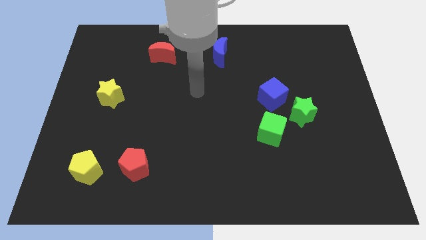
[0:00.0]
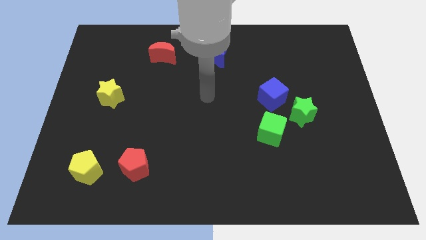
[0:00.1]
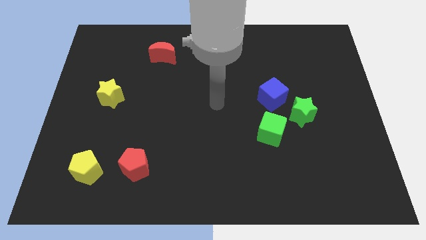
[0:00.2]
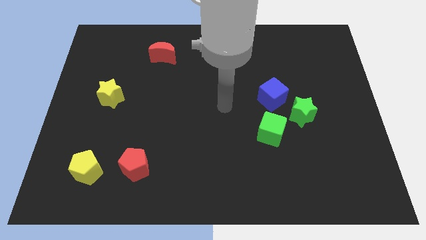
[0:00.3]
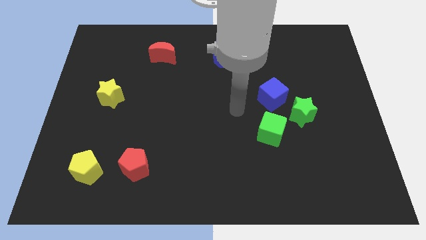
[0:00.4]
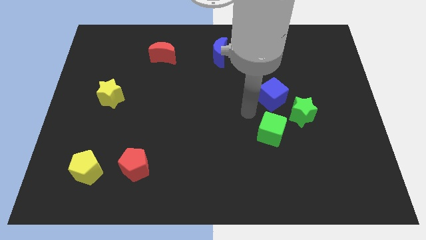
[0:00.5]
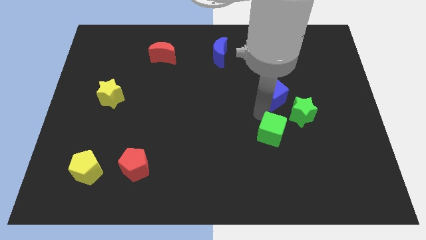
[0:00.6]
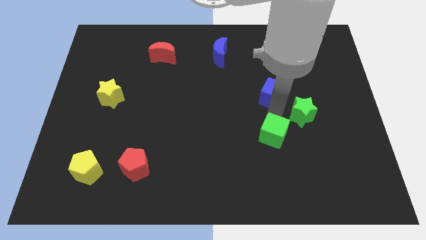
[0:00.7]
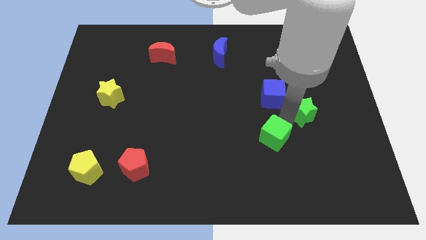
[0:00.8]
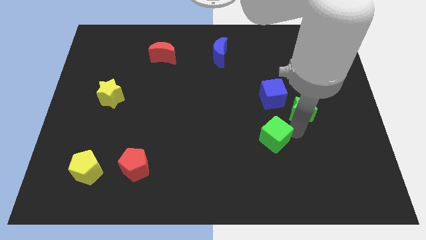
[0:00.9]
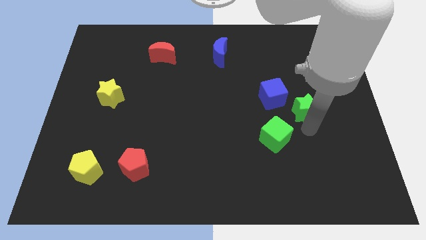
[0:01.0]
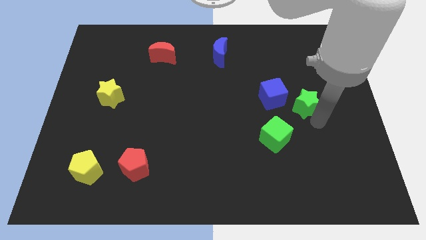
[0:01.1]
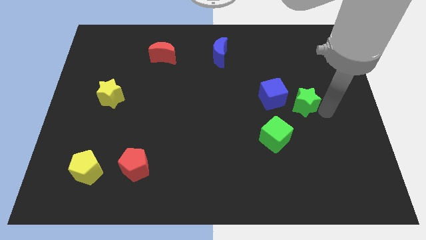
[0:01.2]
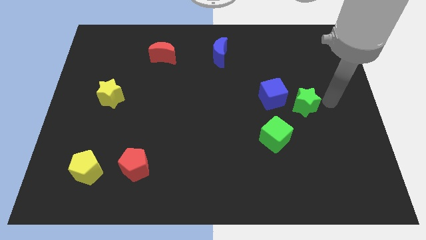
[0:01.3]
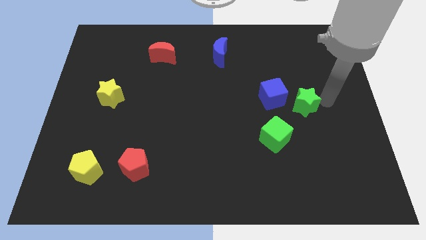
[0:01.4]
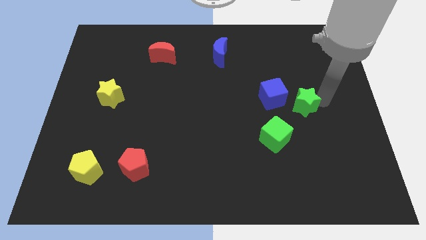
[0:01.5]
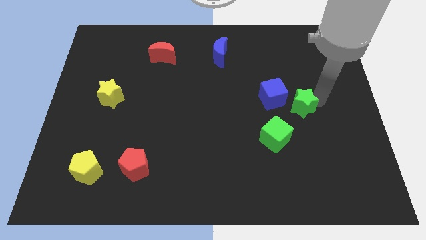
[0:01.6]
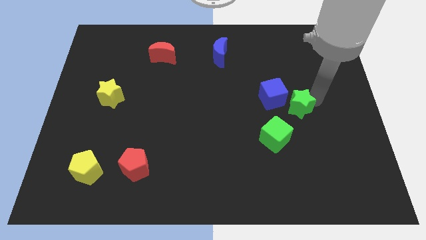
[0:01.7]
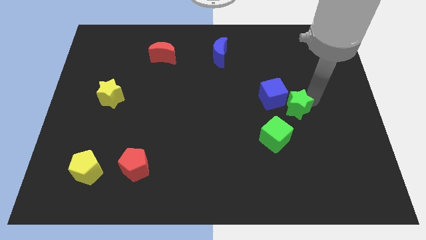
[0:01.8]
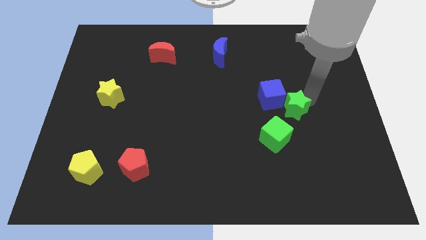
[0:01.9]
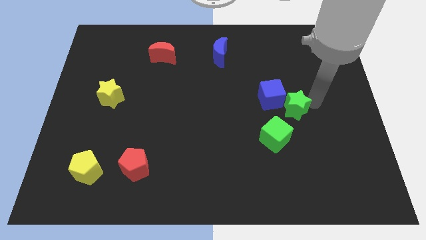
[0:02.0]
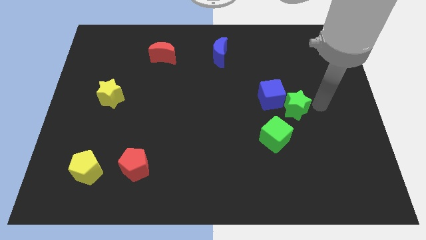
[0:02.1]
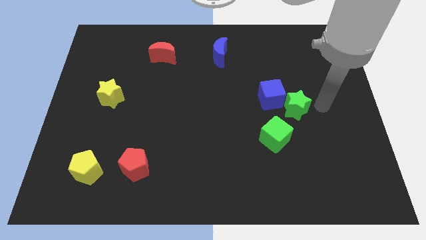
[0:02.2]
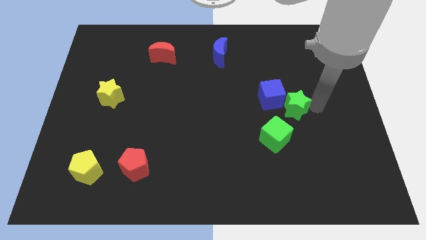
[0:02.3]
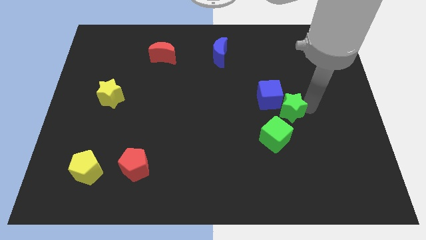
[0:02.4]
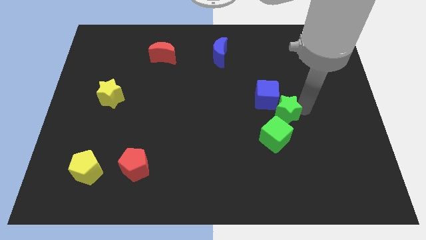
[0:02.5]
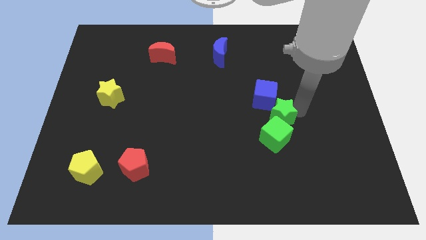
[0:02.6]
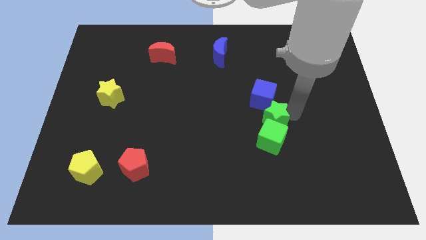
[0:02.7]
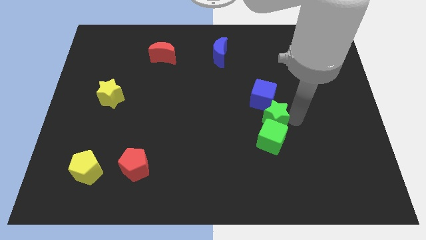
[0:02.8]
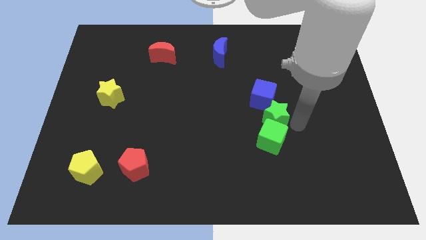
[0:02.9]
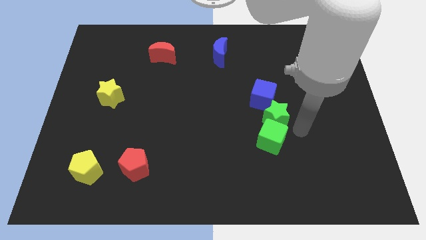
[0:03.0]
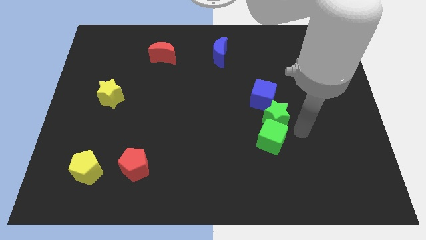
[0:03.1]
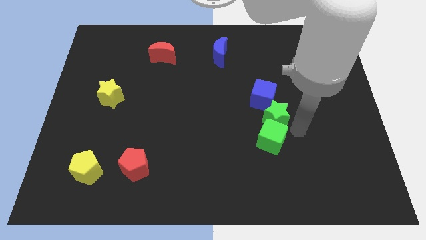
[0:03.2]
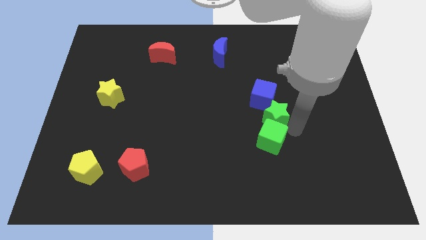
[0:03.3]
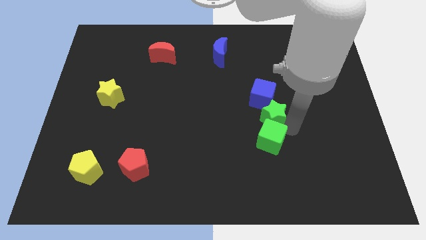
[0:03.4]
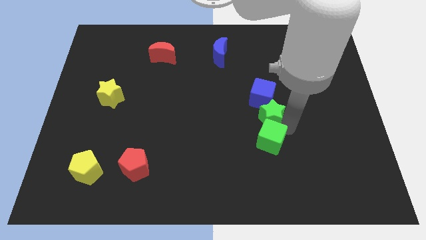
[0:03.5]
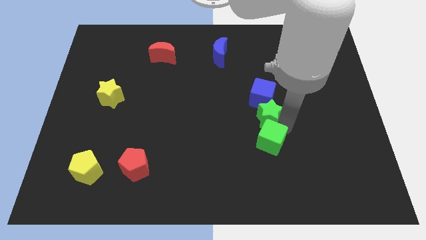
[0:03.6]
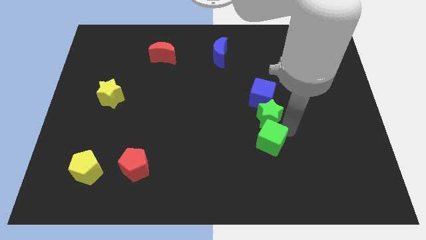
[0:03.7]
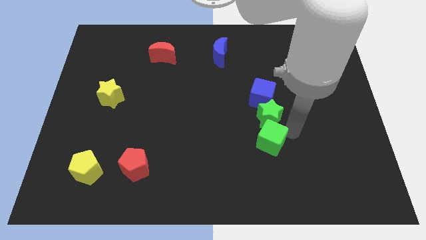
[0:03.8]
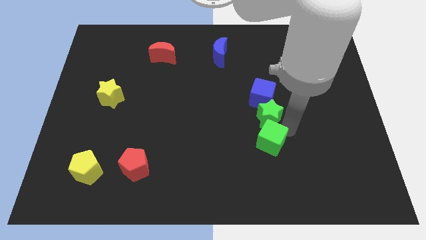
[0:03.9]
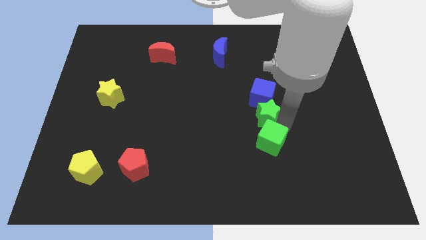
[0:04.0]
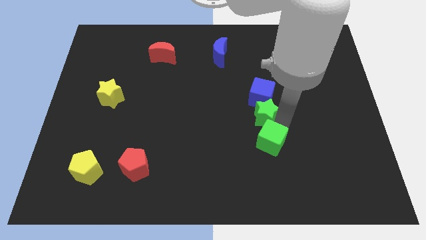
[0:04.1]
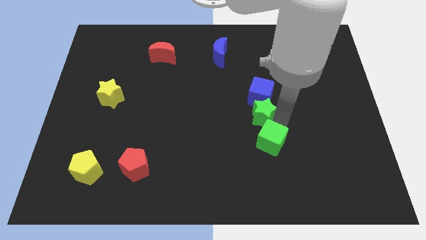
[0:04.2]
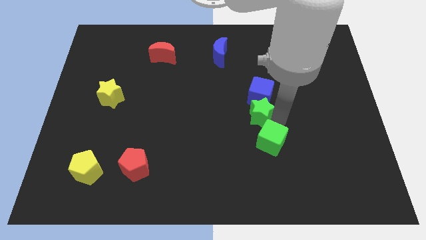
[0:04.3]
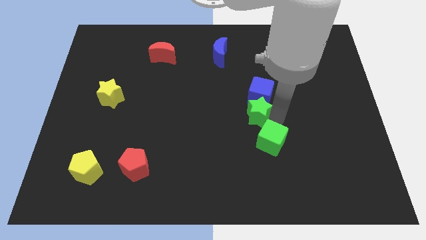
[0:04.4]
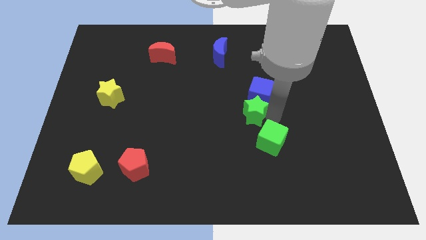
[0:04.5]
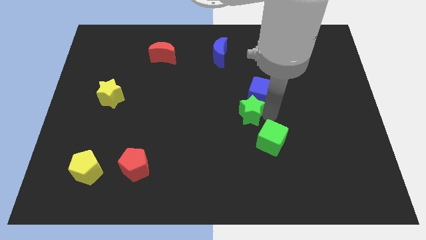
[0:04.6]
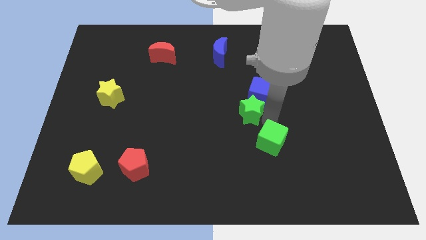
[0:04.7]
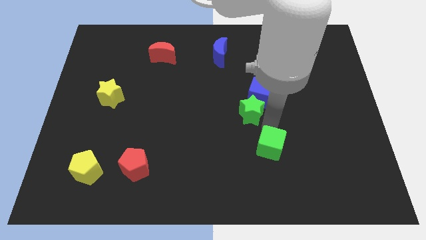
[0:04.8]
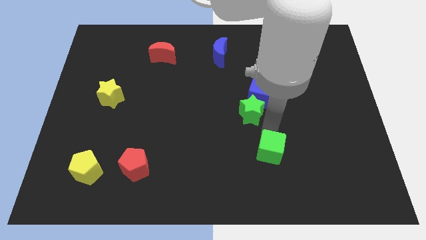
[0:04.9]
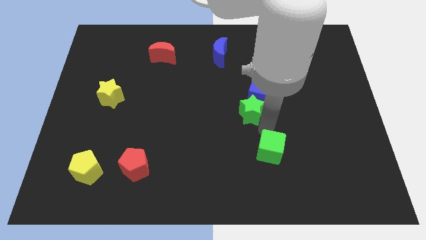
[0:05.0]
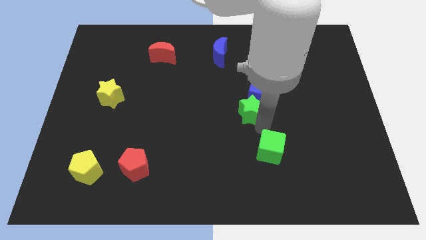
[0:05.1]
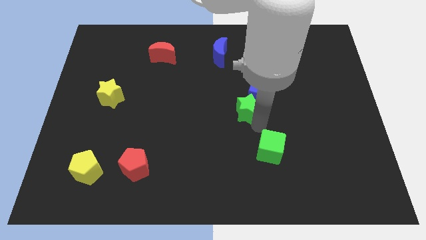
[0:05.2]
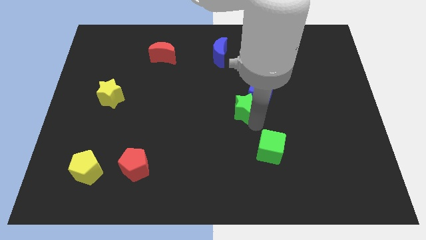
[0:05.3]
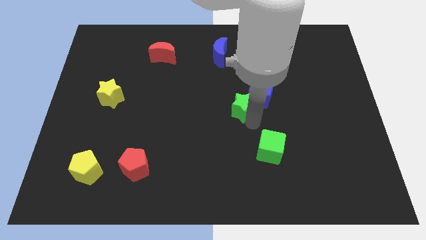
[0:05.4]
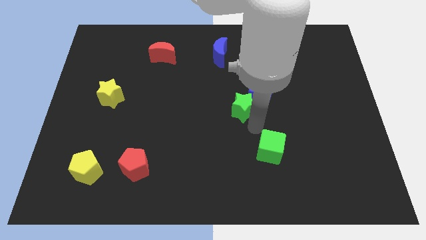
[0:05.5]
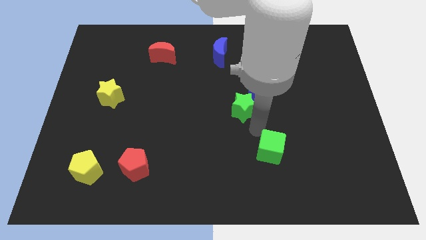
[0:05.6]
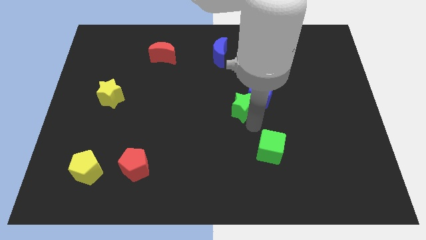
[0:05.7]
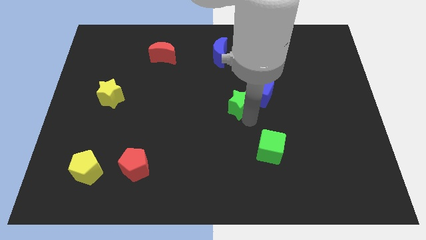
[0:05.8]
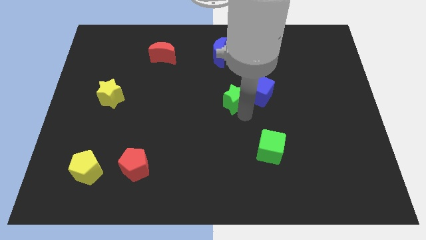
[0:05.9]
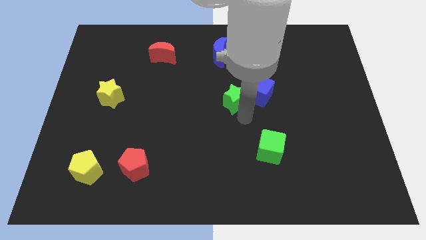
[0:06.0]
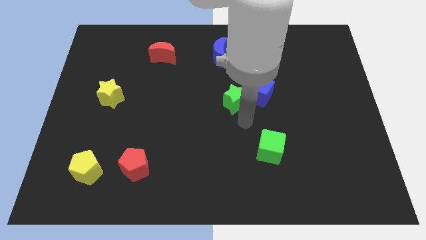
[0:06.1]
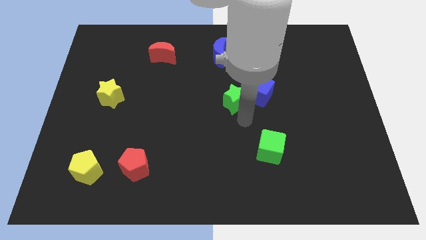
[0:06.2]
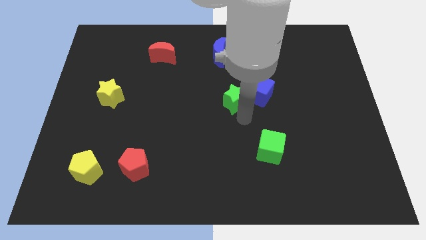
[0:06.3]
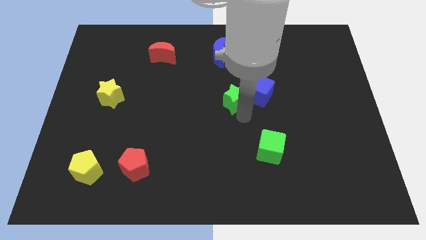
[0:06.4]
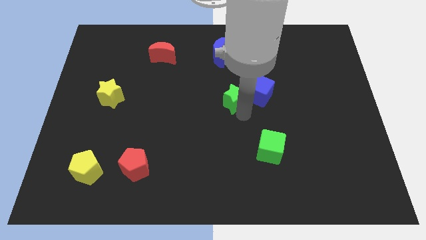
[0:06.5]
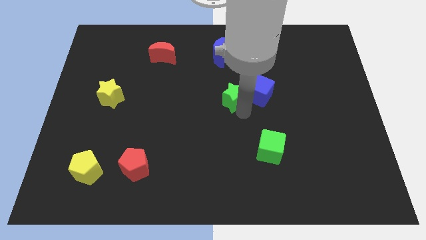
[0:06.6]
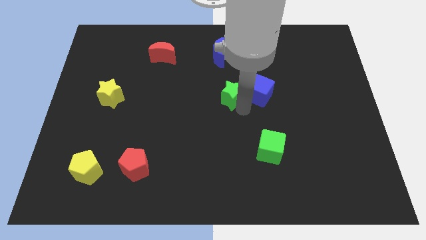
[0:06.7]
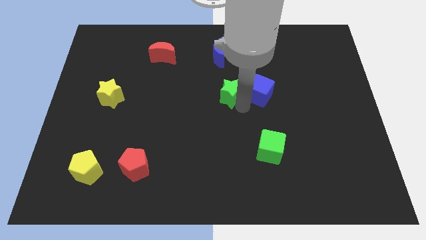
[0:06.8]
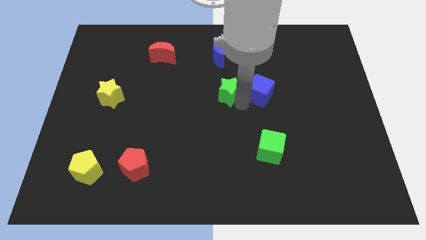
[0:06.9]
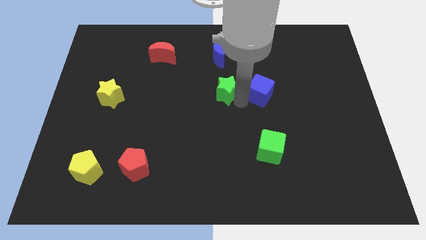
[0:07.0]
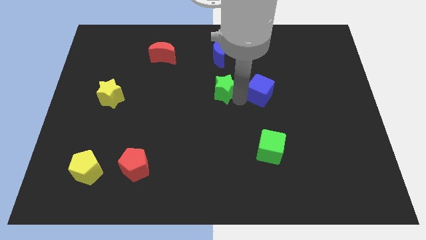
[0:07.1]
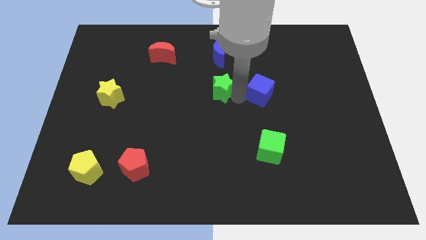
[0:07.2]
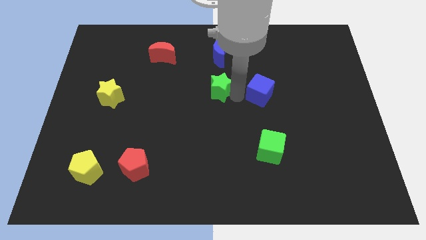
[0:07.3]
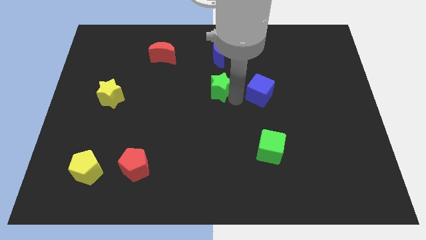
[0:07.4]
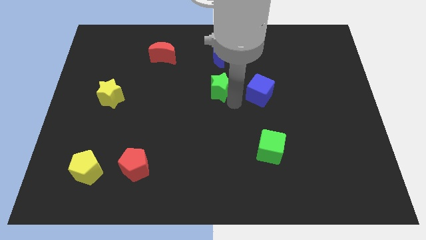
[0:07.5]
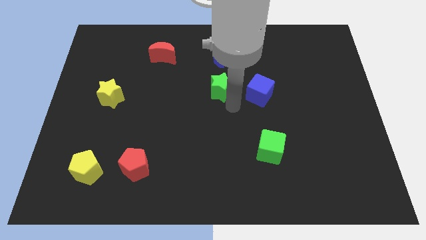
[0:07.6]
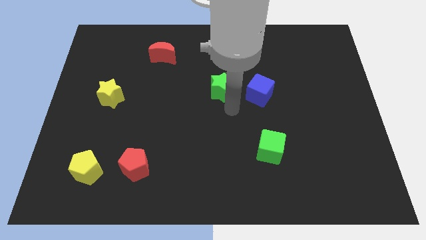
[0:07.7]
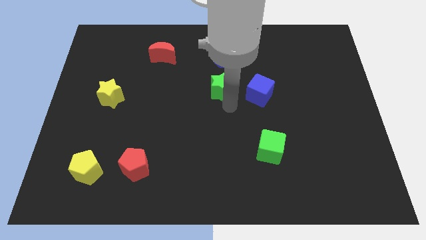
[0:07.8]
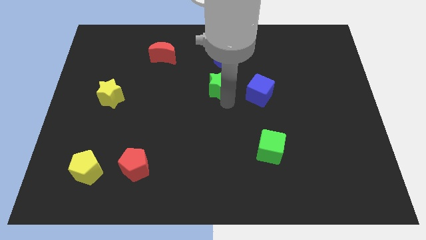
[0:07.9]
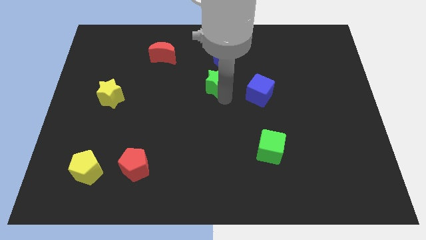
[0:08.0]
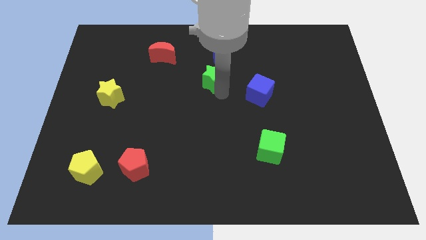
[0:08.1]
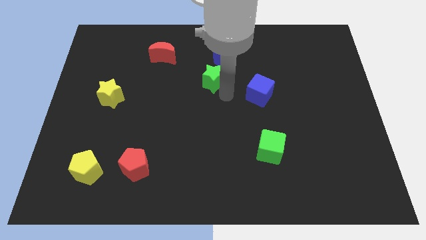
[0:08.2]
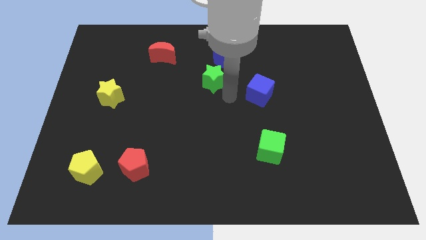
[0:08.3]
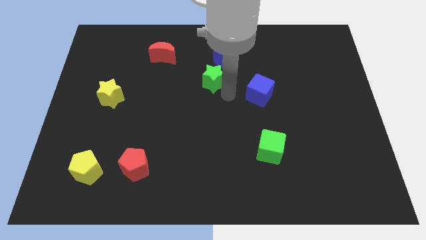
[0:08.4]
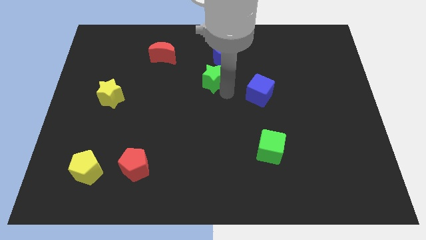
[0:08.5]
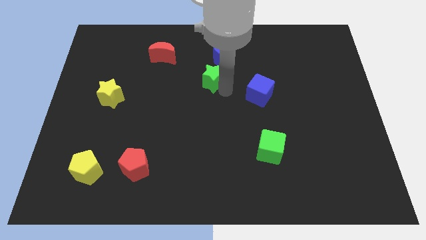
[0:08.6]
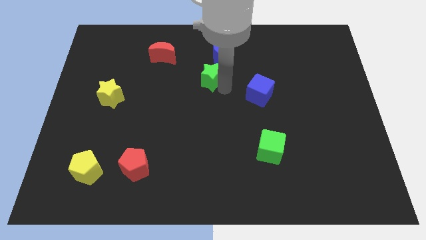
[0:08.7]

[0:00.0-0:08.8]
move the green star diagonally down and to the left of the blue moon
